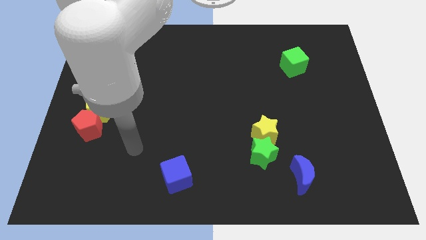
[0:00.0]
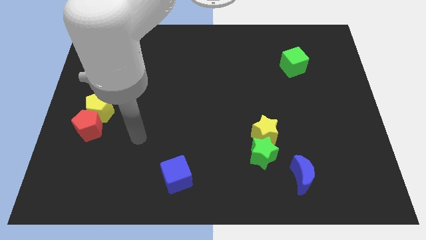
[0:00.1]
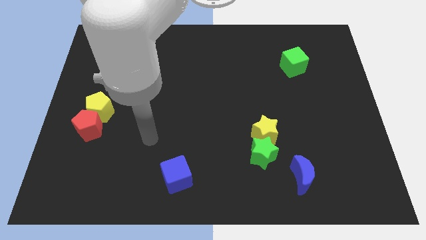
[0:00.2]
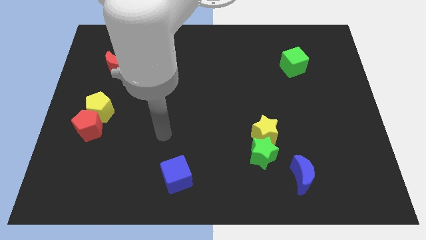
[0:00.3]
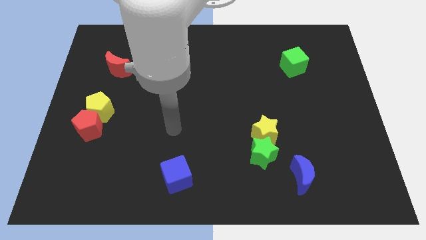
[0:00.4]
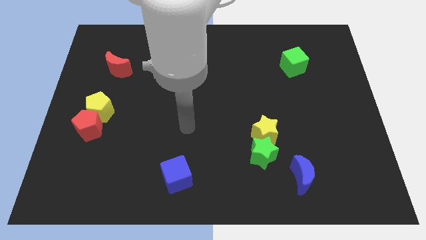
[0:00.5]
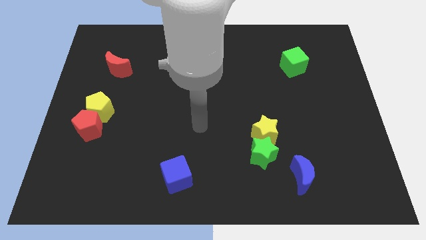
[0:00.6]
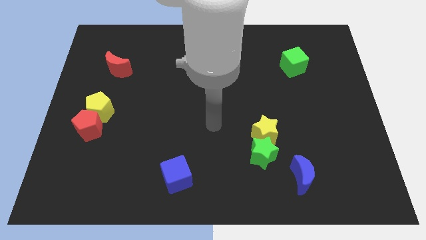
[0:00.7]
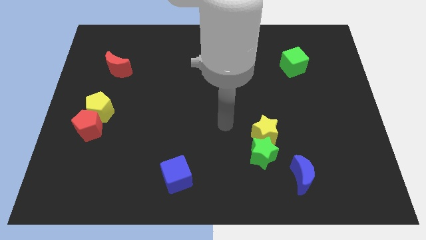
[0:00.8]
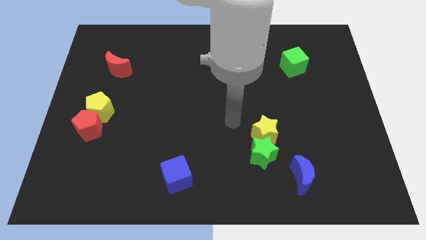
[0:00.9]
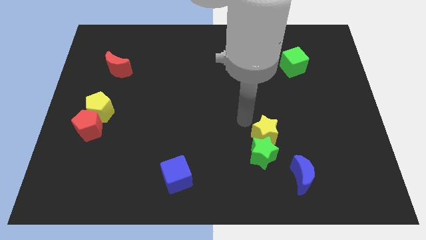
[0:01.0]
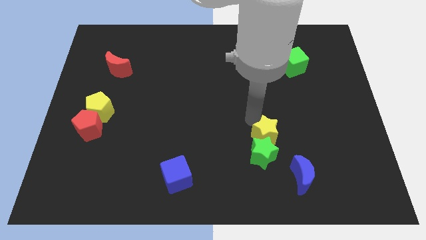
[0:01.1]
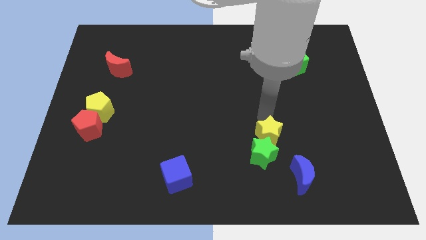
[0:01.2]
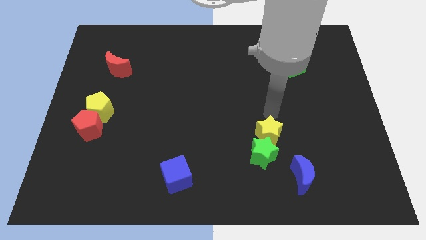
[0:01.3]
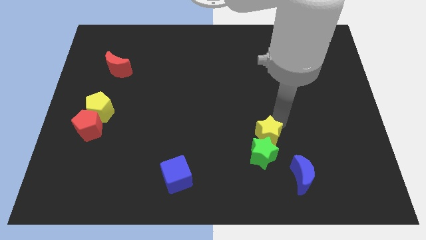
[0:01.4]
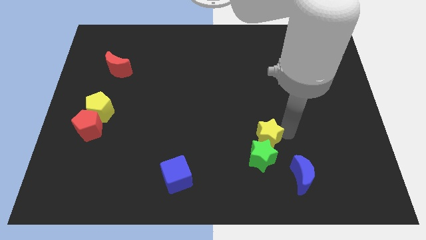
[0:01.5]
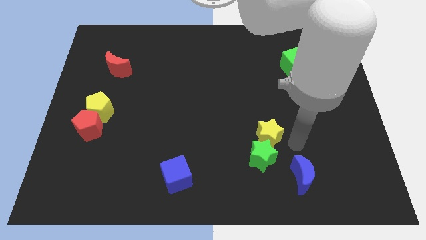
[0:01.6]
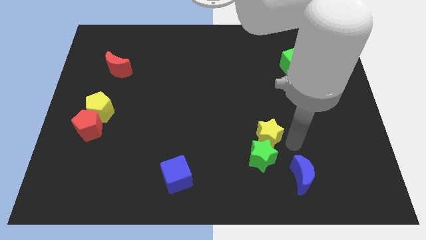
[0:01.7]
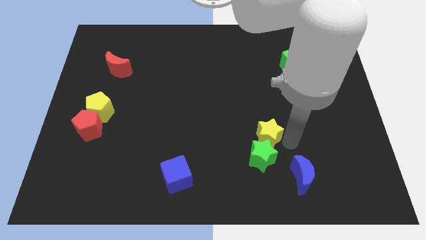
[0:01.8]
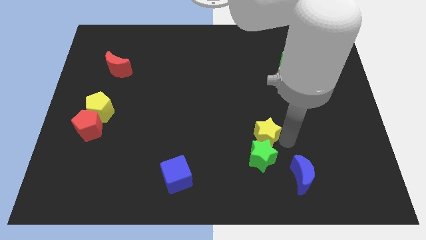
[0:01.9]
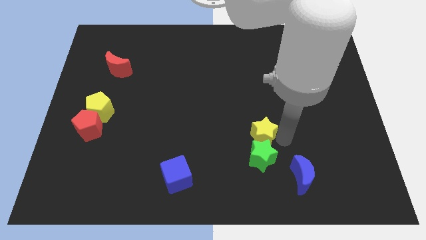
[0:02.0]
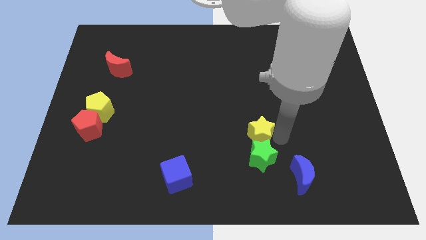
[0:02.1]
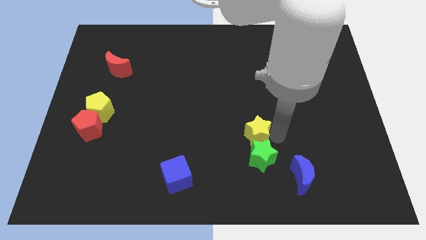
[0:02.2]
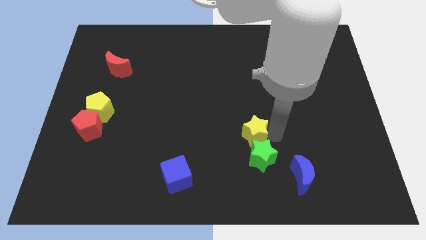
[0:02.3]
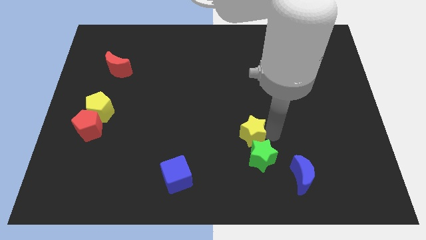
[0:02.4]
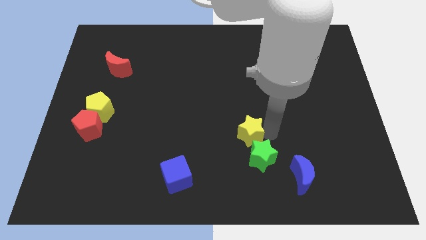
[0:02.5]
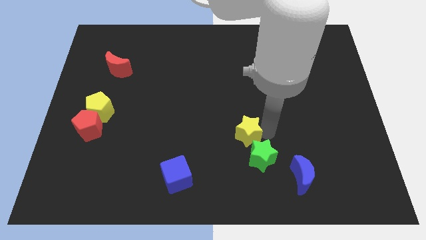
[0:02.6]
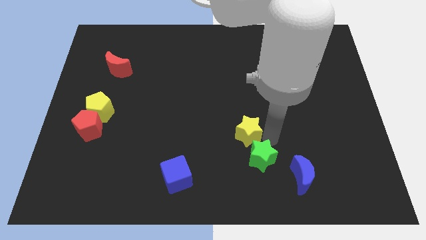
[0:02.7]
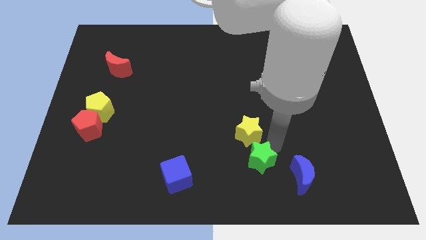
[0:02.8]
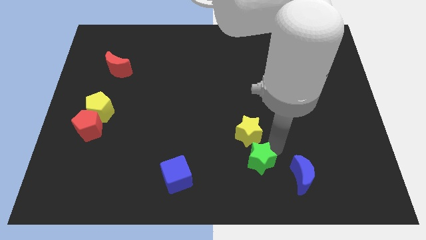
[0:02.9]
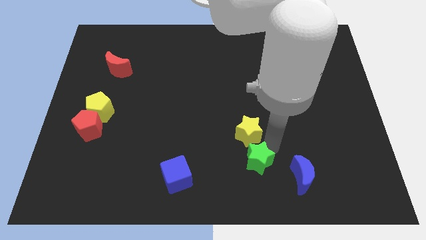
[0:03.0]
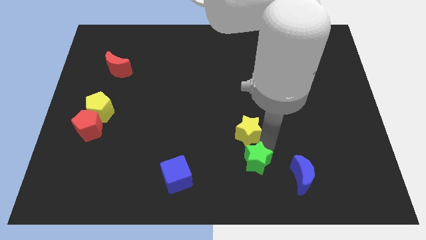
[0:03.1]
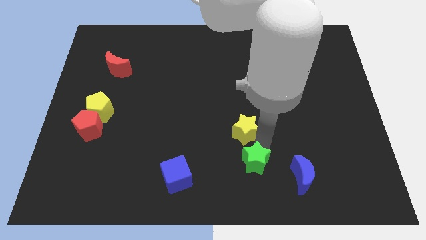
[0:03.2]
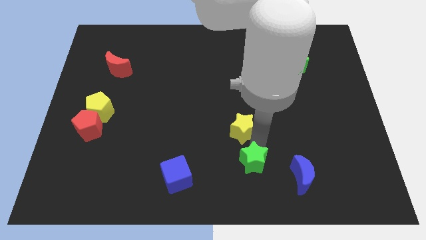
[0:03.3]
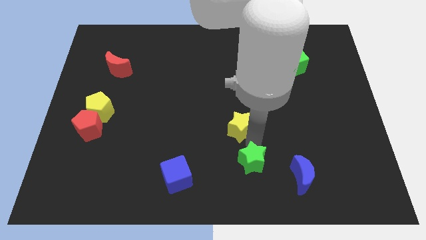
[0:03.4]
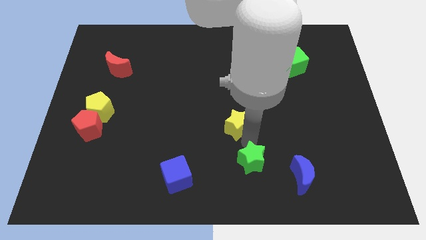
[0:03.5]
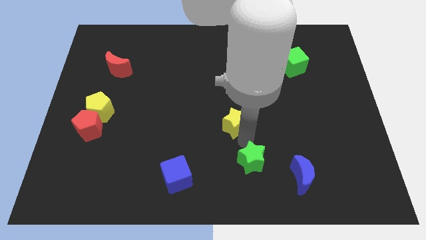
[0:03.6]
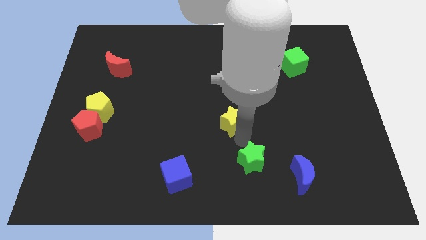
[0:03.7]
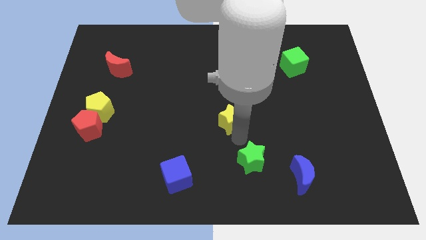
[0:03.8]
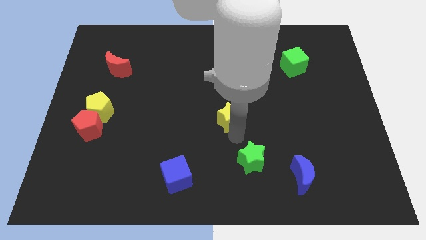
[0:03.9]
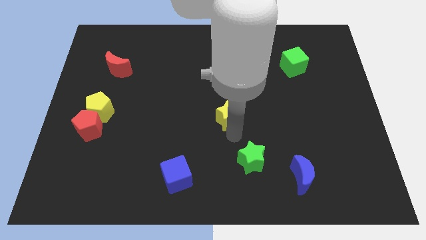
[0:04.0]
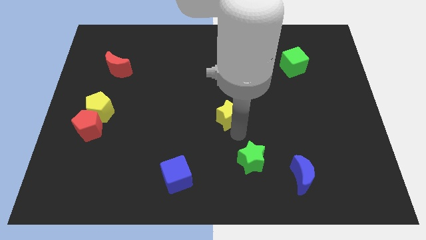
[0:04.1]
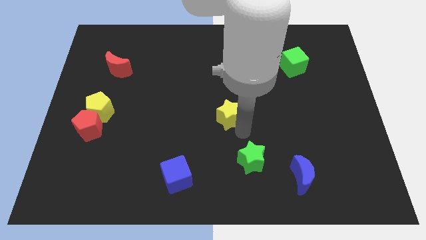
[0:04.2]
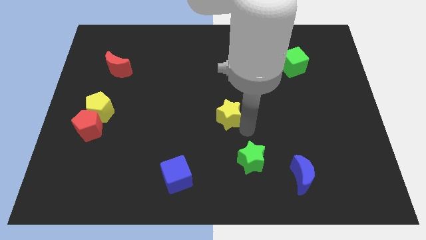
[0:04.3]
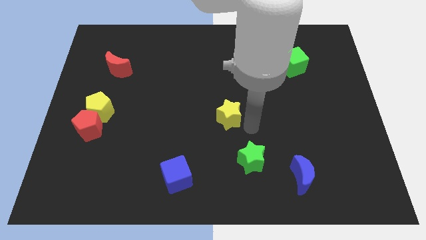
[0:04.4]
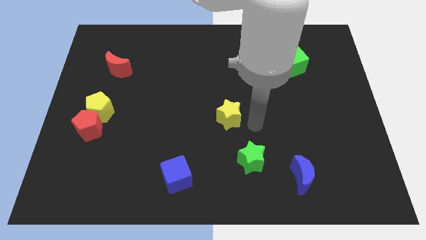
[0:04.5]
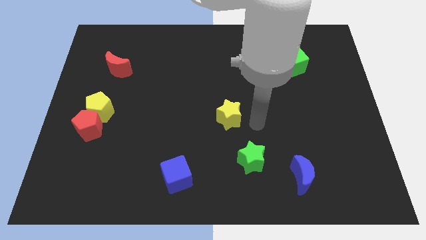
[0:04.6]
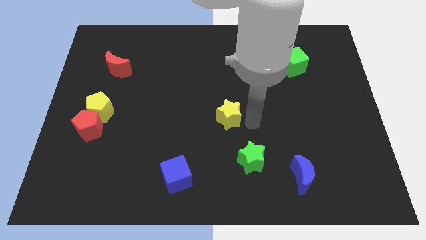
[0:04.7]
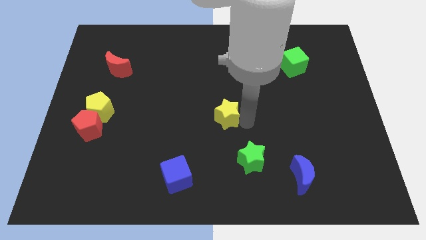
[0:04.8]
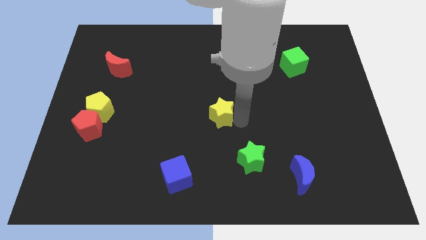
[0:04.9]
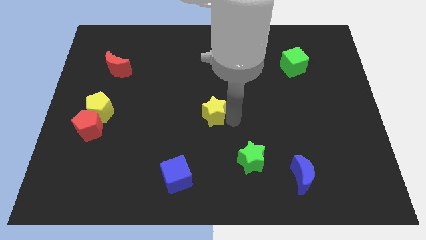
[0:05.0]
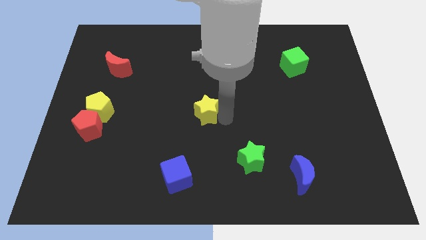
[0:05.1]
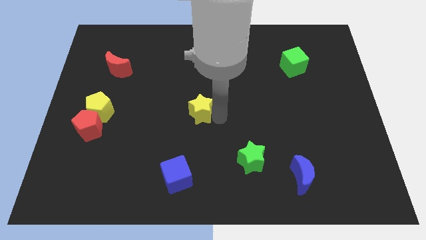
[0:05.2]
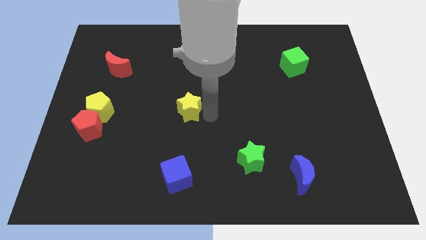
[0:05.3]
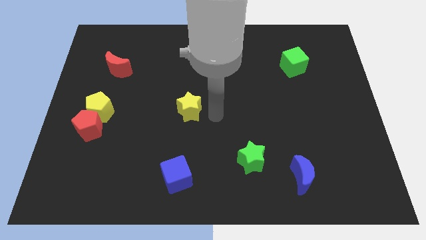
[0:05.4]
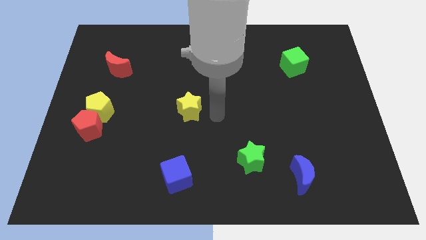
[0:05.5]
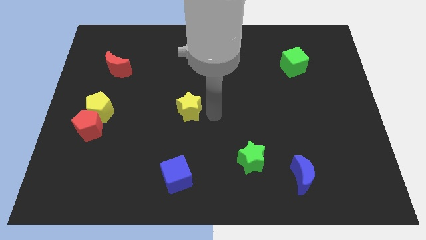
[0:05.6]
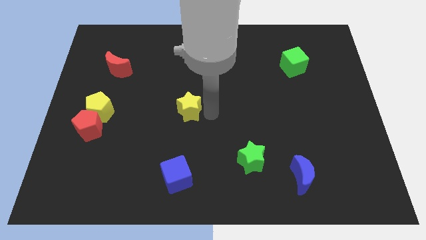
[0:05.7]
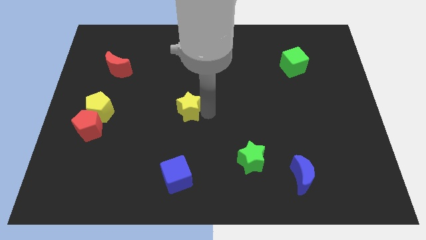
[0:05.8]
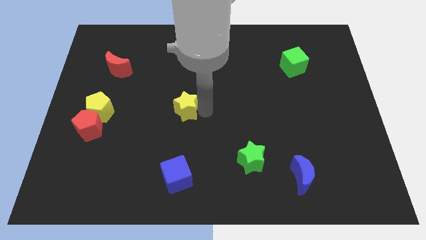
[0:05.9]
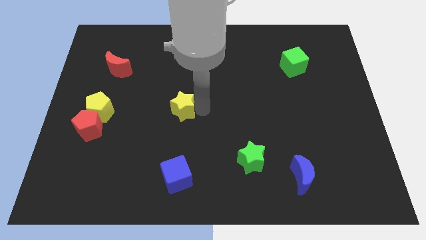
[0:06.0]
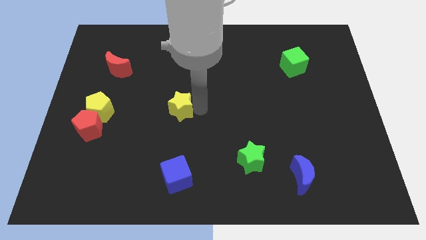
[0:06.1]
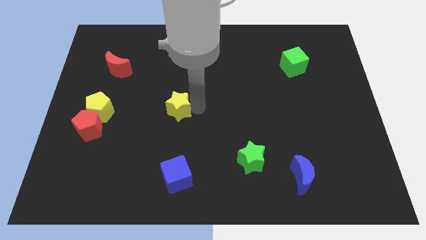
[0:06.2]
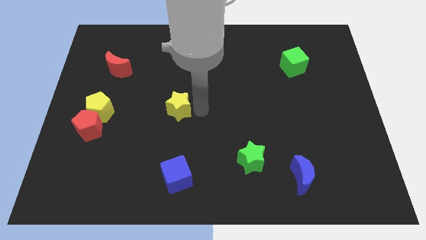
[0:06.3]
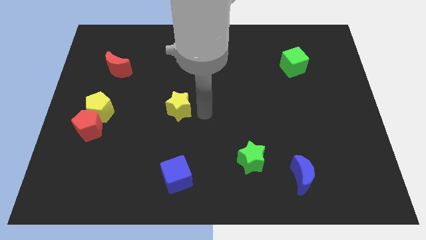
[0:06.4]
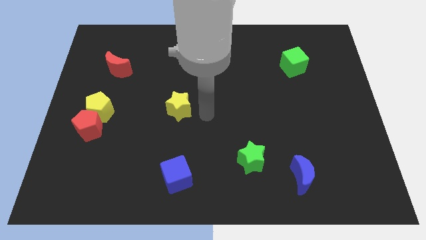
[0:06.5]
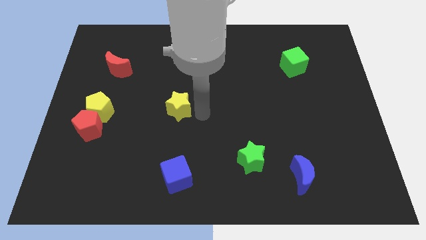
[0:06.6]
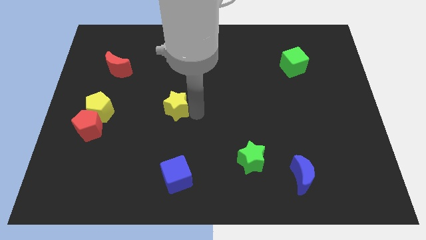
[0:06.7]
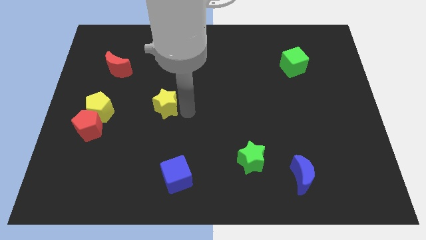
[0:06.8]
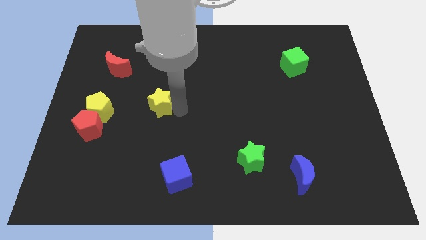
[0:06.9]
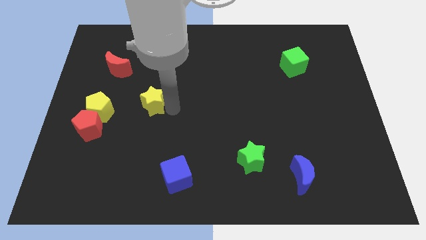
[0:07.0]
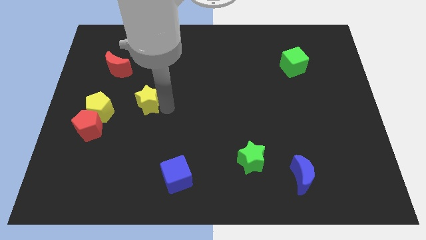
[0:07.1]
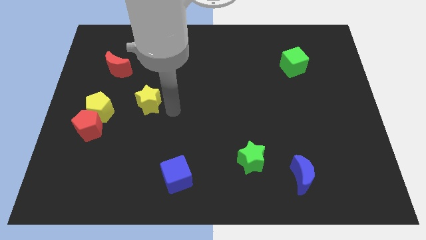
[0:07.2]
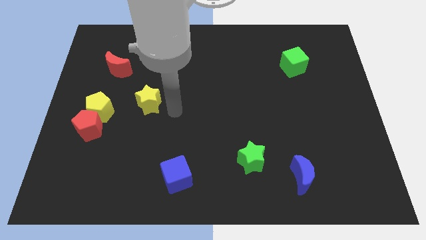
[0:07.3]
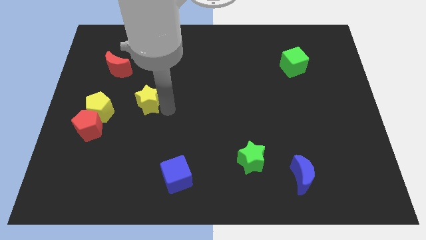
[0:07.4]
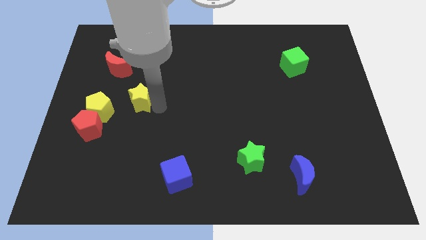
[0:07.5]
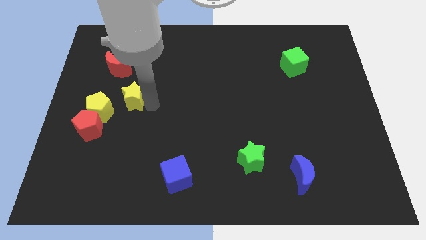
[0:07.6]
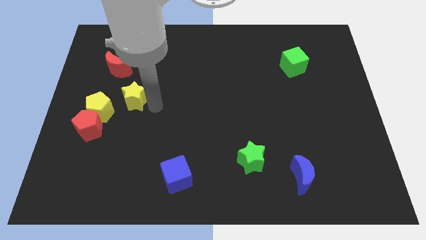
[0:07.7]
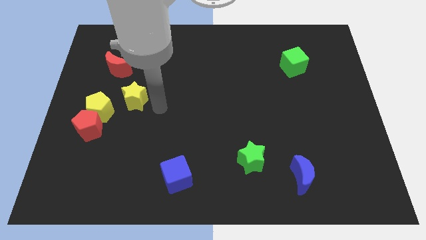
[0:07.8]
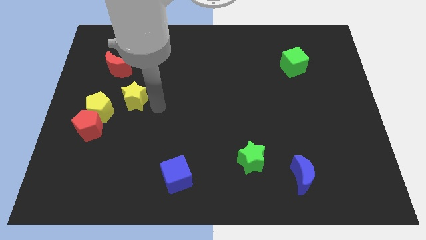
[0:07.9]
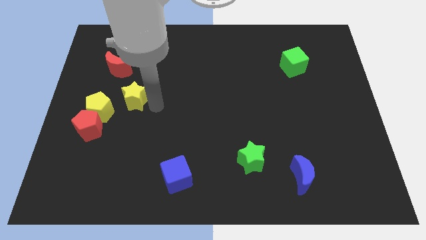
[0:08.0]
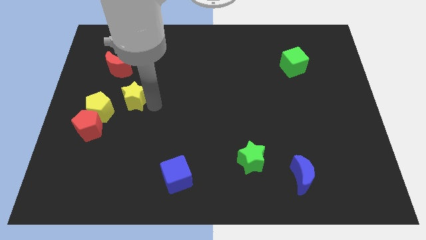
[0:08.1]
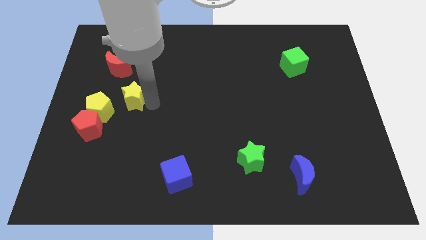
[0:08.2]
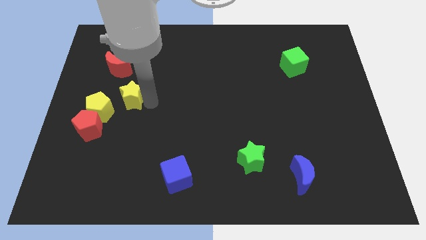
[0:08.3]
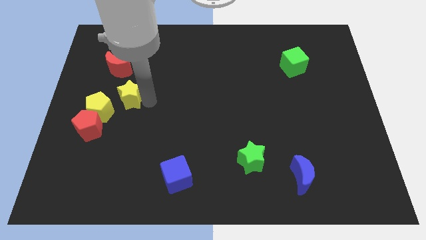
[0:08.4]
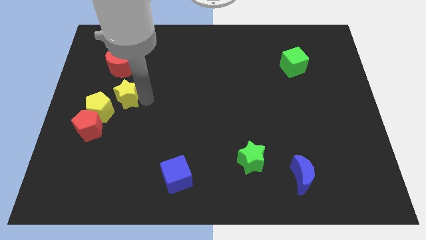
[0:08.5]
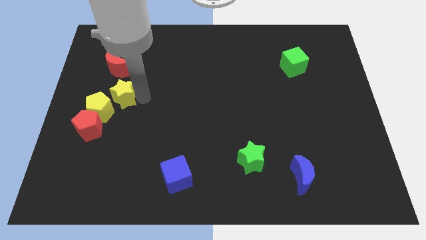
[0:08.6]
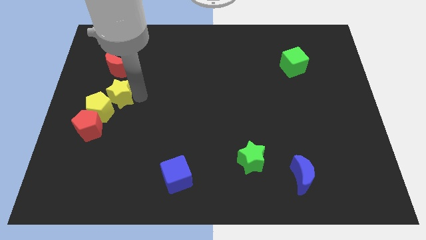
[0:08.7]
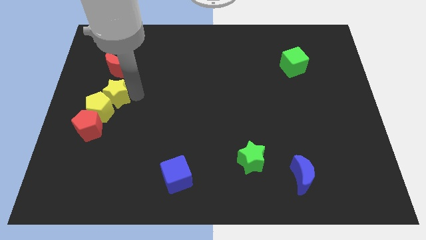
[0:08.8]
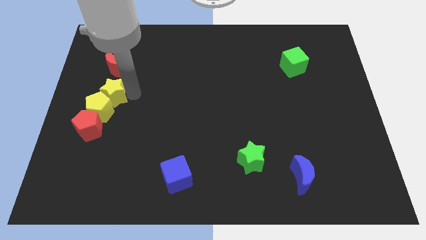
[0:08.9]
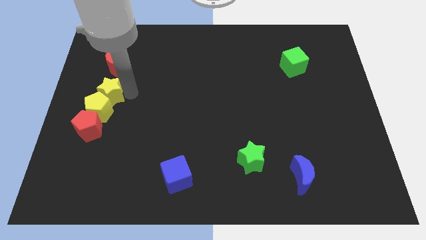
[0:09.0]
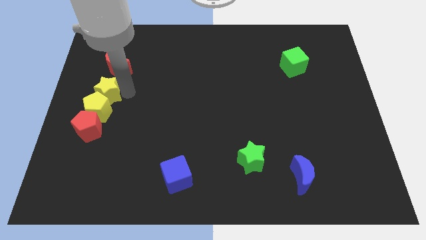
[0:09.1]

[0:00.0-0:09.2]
push the yellow star to the center left
